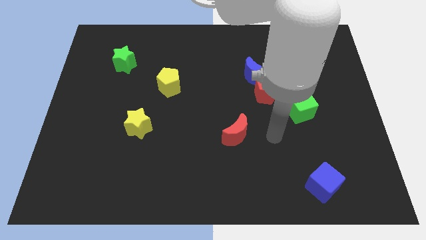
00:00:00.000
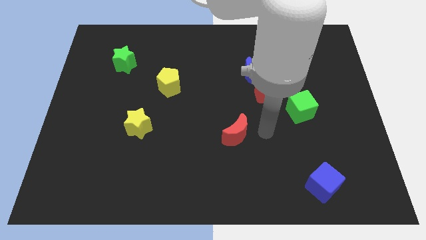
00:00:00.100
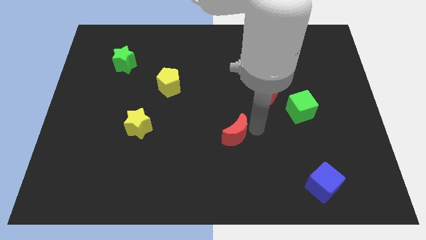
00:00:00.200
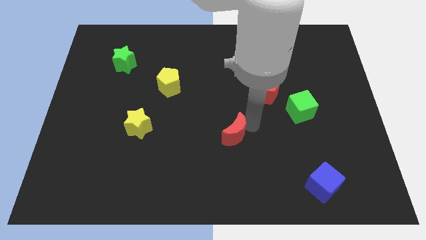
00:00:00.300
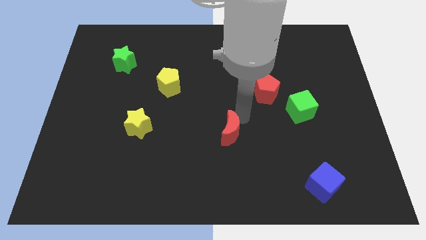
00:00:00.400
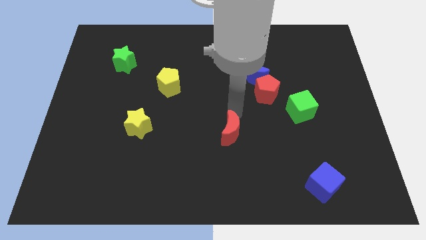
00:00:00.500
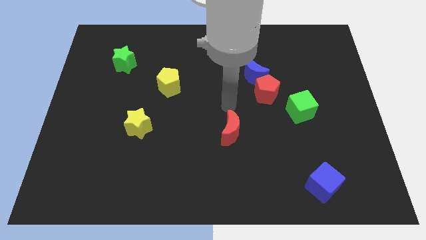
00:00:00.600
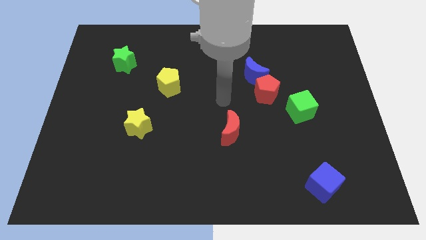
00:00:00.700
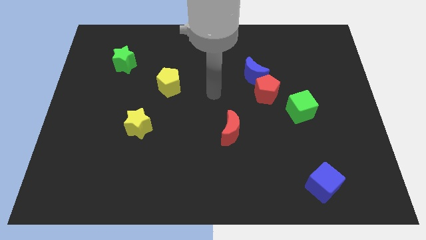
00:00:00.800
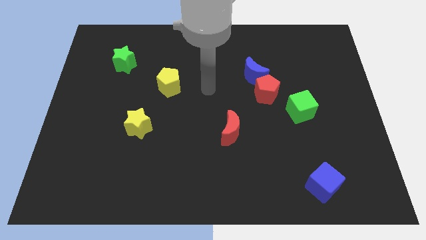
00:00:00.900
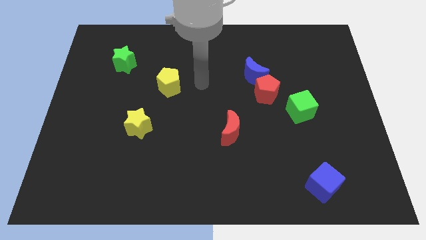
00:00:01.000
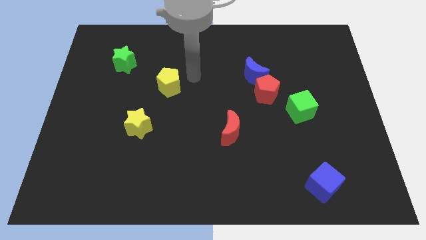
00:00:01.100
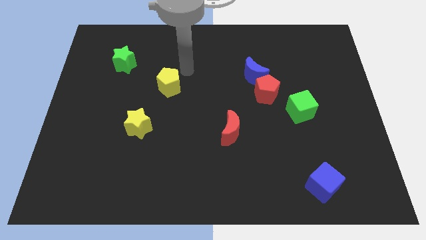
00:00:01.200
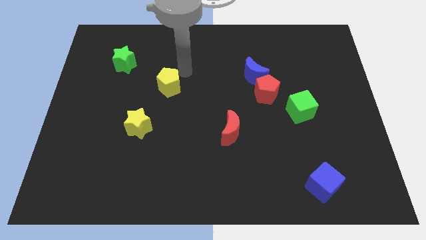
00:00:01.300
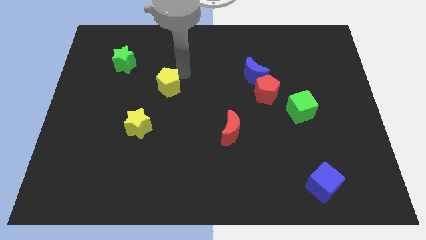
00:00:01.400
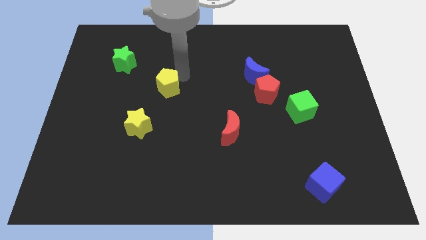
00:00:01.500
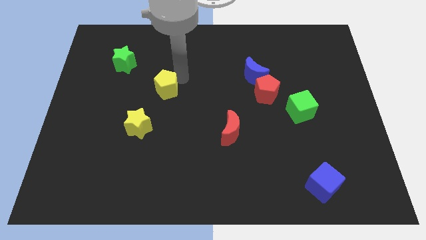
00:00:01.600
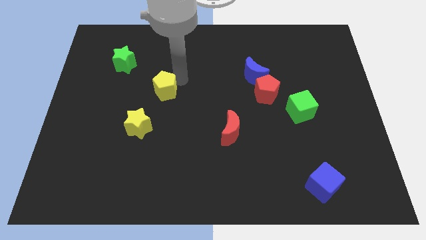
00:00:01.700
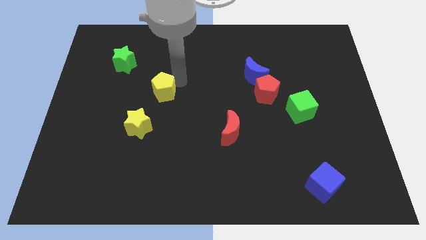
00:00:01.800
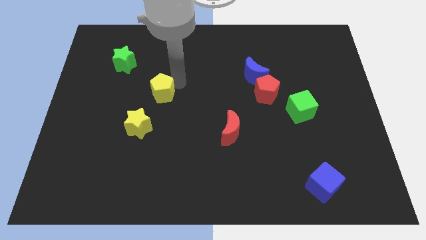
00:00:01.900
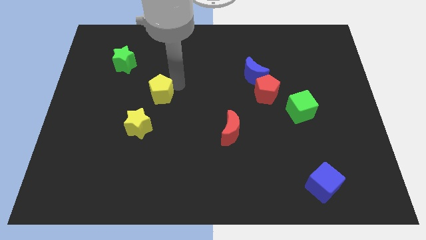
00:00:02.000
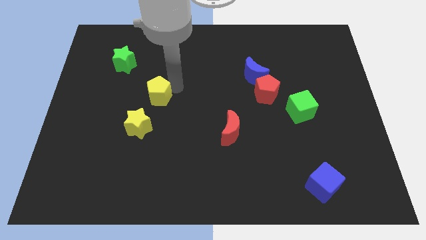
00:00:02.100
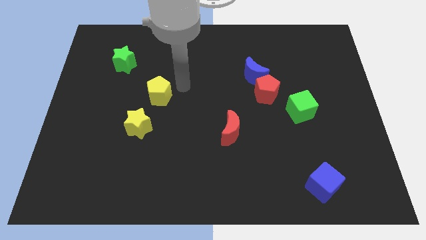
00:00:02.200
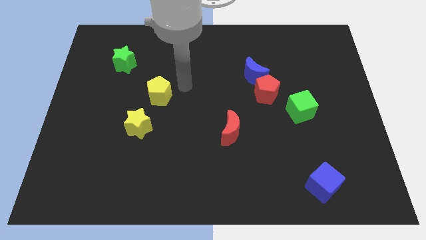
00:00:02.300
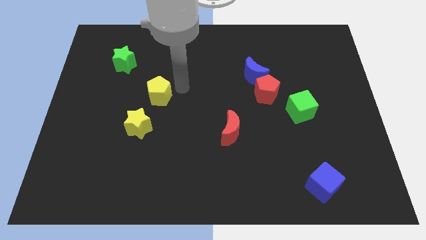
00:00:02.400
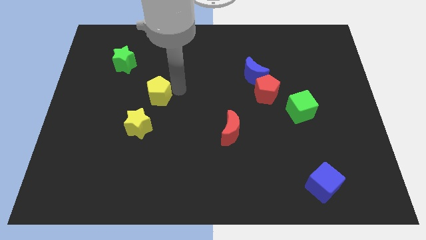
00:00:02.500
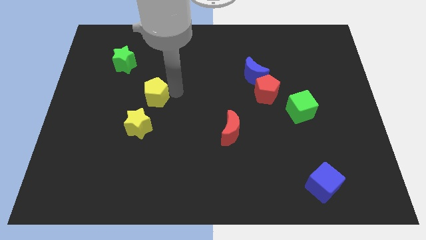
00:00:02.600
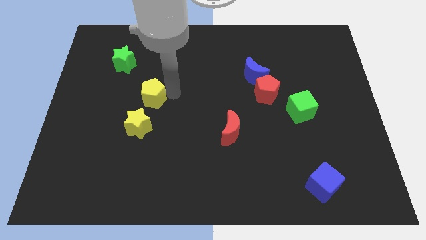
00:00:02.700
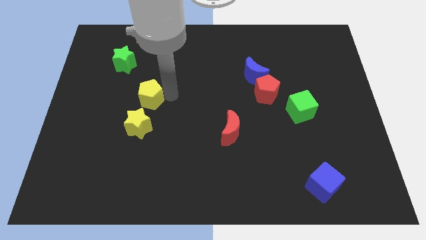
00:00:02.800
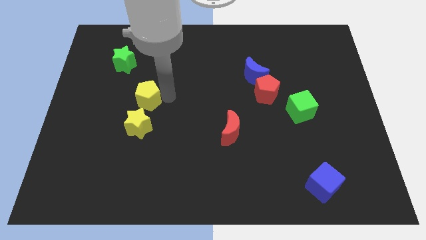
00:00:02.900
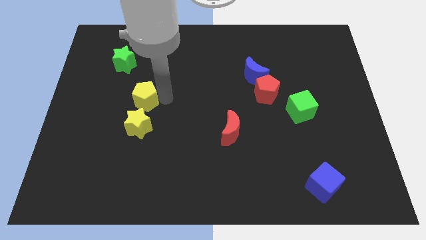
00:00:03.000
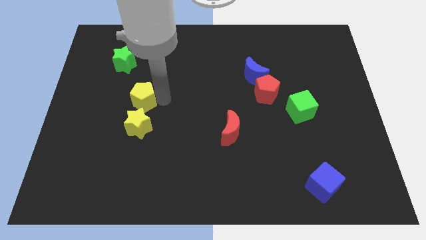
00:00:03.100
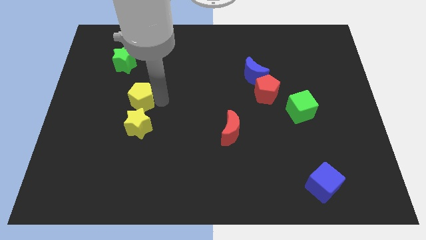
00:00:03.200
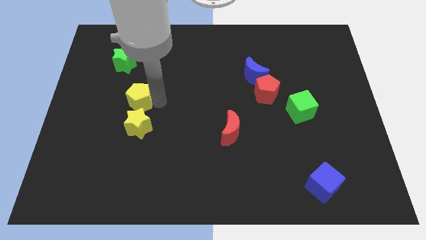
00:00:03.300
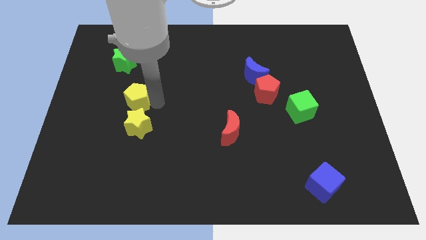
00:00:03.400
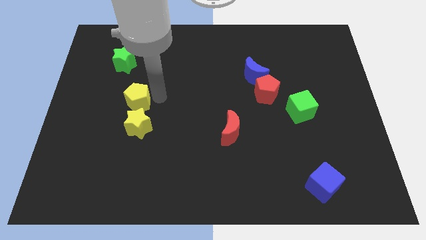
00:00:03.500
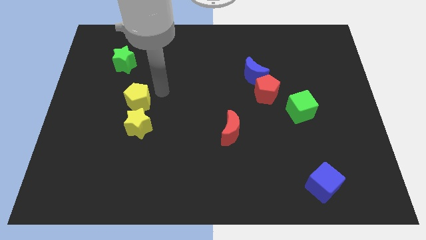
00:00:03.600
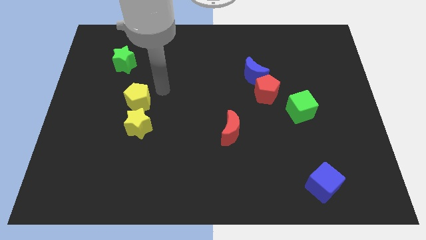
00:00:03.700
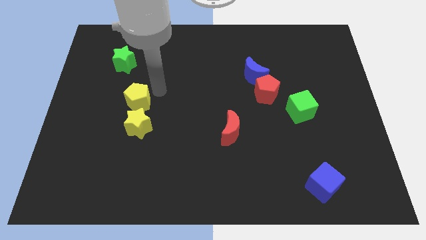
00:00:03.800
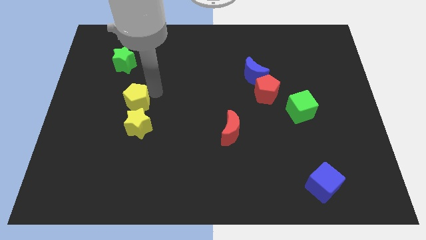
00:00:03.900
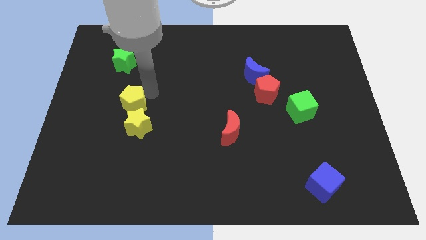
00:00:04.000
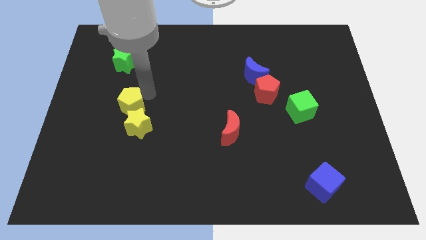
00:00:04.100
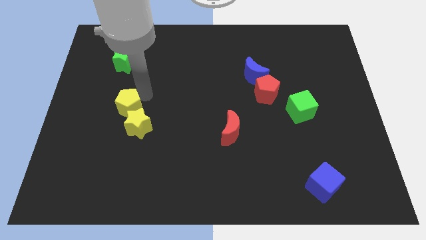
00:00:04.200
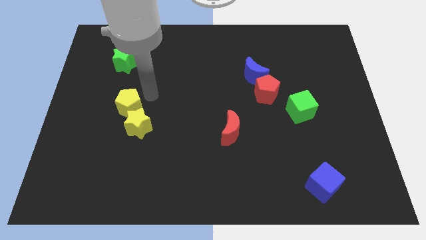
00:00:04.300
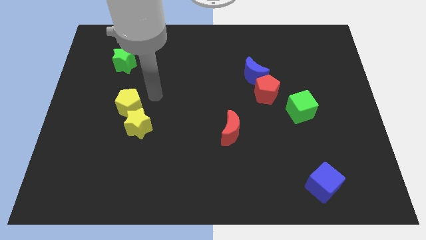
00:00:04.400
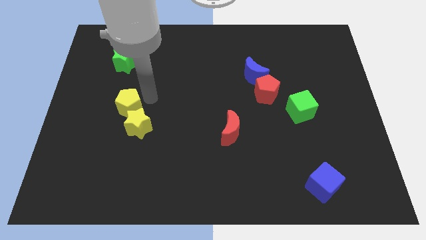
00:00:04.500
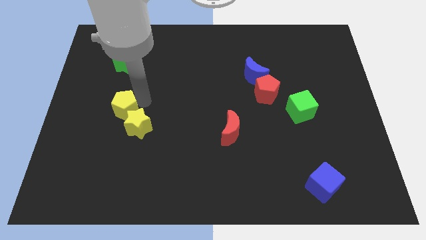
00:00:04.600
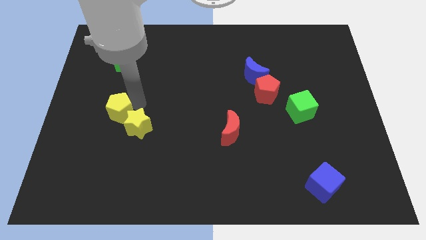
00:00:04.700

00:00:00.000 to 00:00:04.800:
move the yellow pentagon to the left of the yellow star

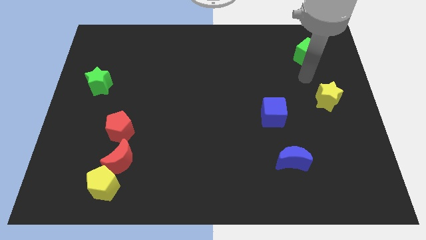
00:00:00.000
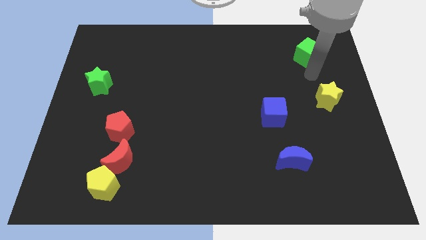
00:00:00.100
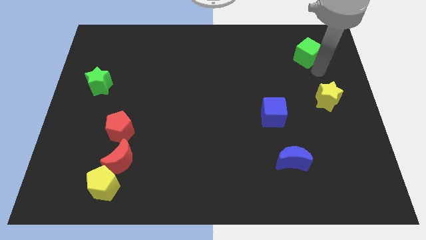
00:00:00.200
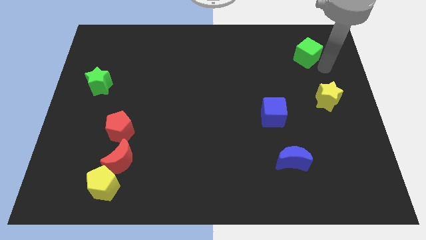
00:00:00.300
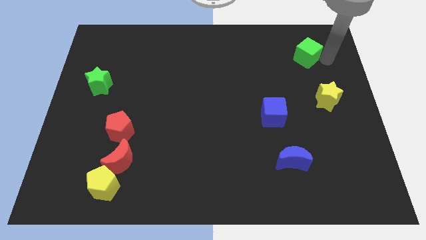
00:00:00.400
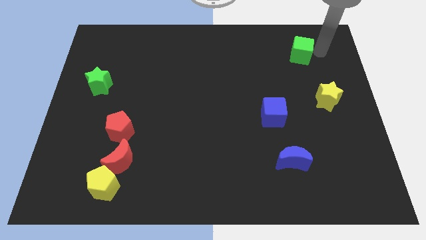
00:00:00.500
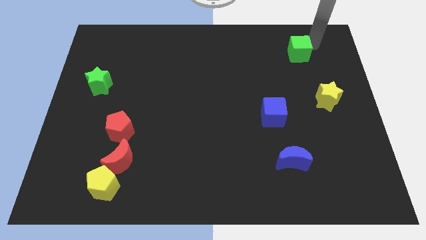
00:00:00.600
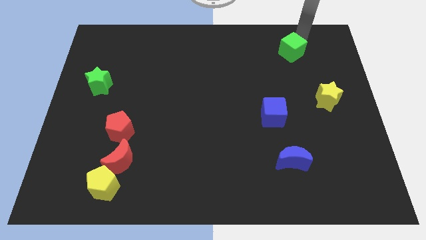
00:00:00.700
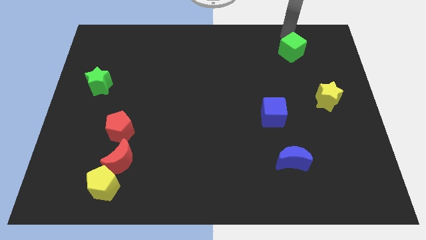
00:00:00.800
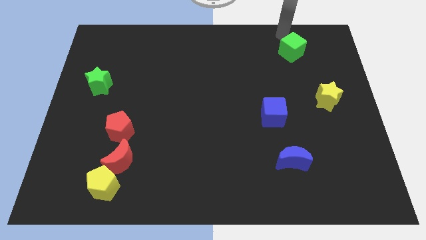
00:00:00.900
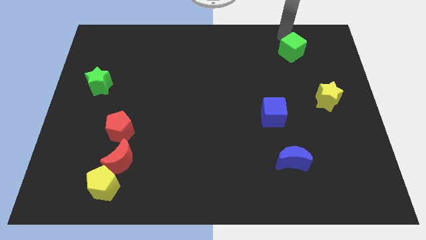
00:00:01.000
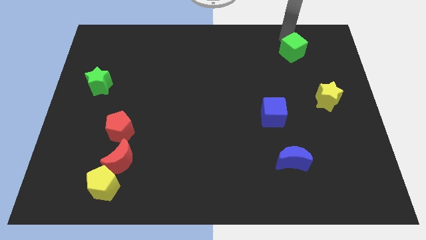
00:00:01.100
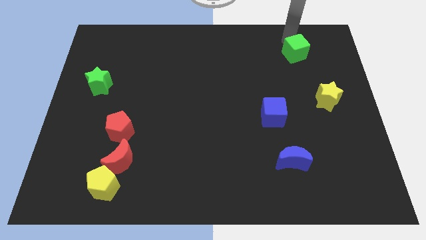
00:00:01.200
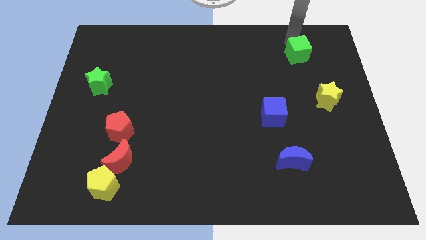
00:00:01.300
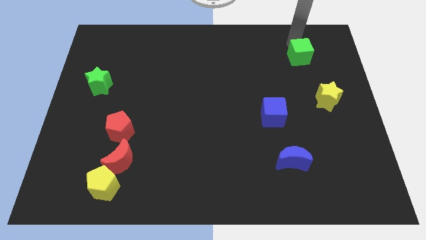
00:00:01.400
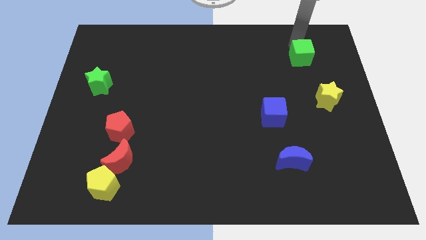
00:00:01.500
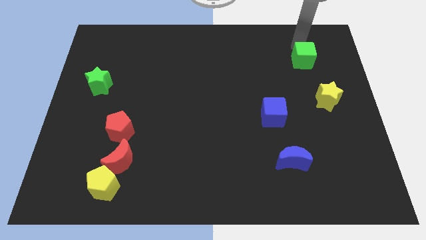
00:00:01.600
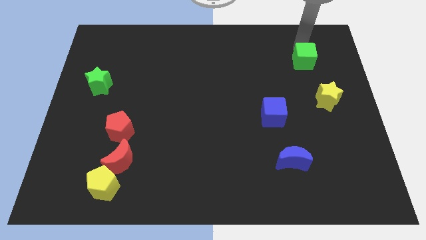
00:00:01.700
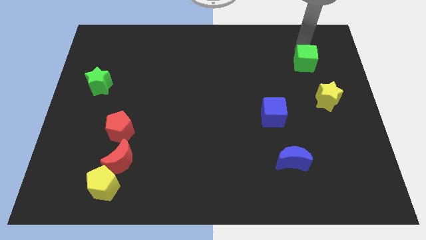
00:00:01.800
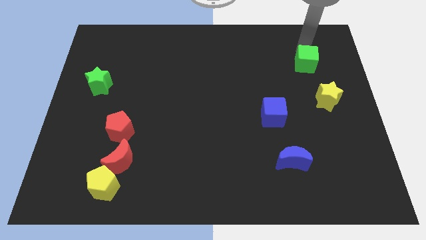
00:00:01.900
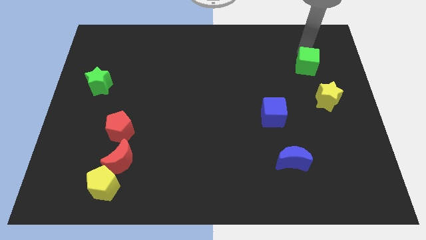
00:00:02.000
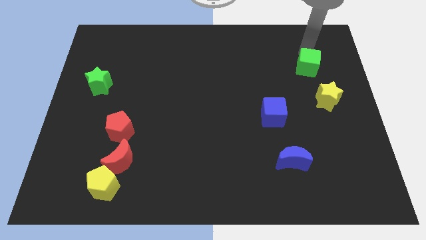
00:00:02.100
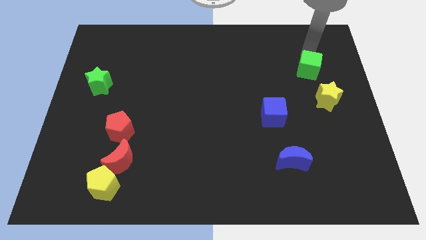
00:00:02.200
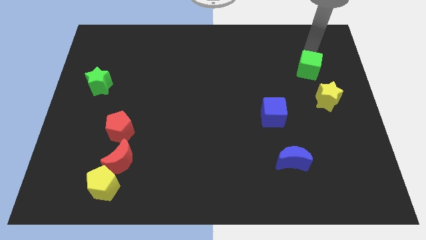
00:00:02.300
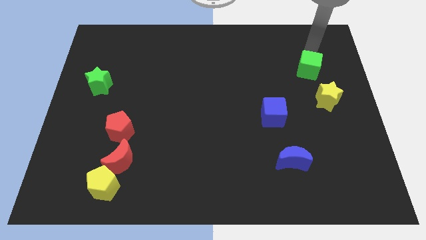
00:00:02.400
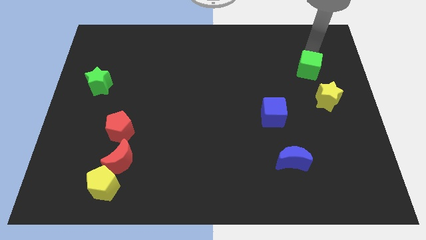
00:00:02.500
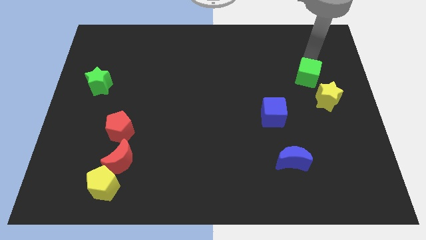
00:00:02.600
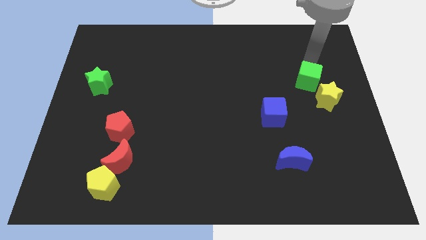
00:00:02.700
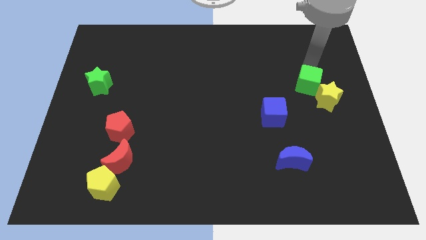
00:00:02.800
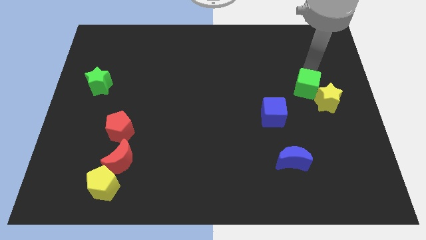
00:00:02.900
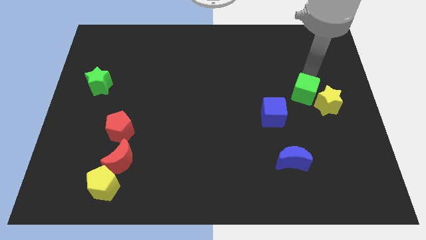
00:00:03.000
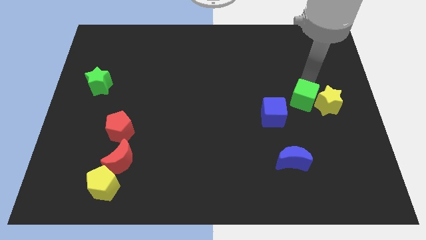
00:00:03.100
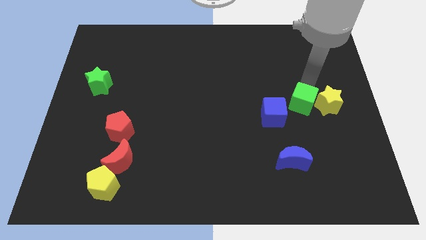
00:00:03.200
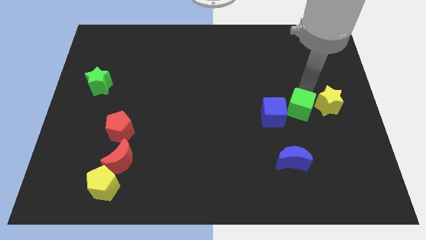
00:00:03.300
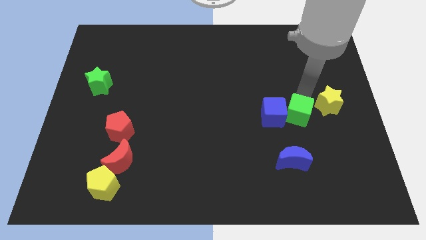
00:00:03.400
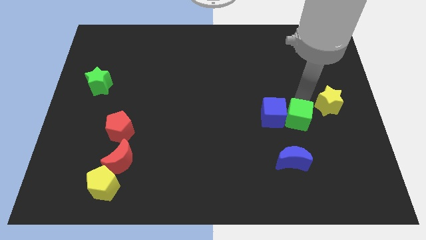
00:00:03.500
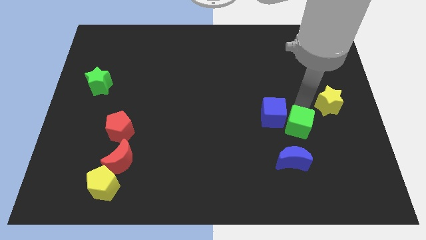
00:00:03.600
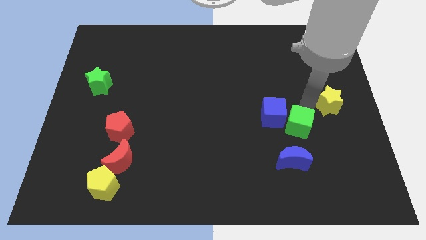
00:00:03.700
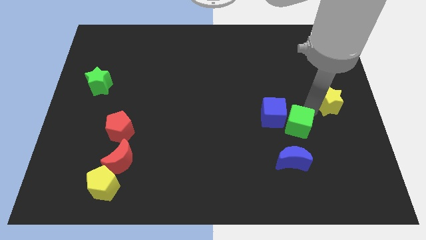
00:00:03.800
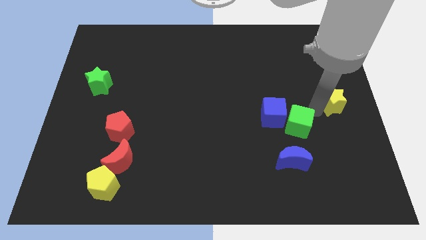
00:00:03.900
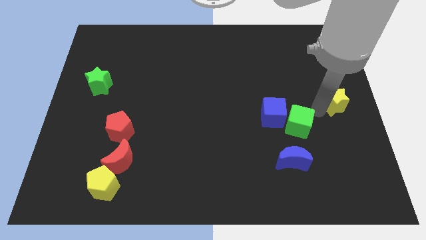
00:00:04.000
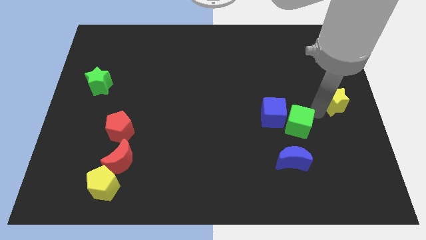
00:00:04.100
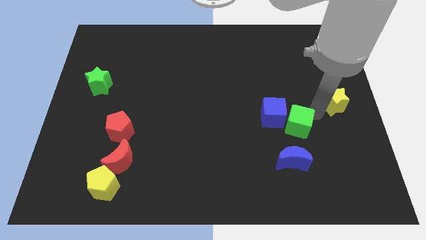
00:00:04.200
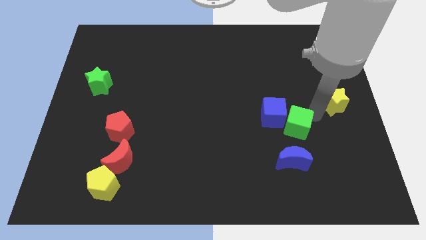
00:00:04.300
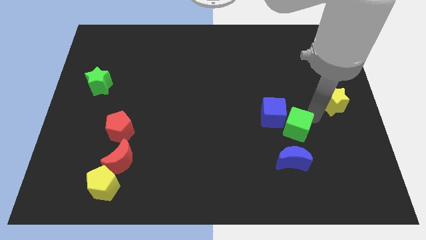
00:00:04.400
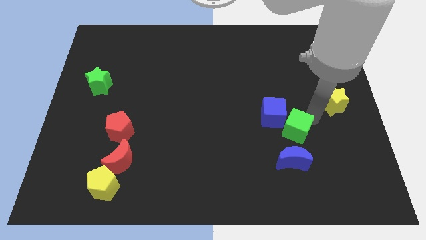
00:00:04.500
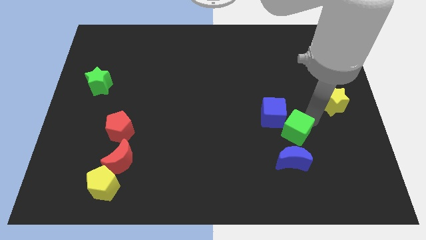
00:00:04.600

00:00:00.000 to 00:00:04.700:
move the green cube below the blue cube
